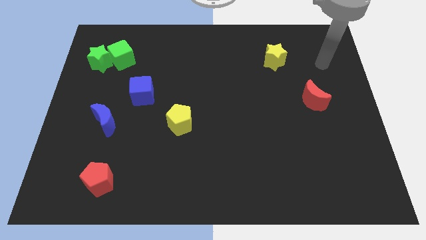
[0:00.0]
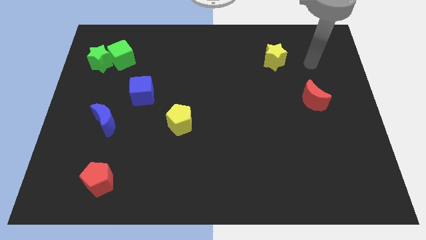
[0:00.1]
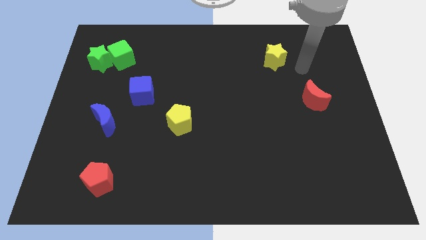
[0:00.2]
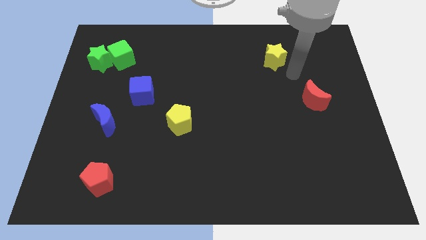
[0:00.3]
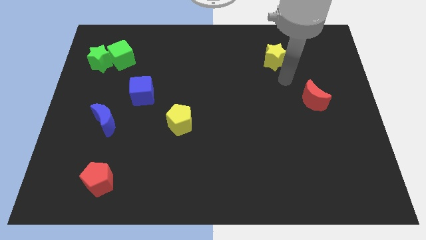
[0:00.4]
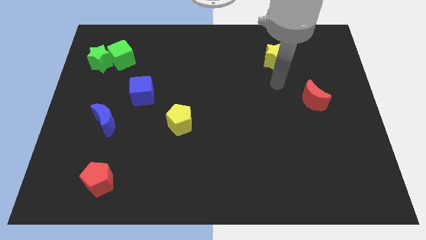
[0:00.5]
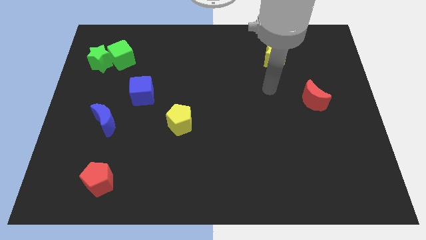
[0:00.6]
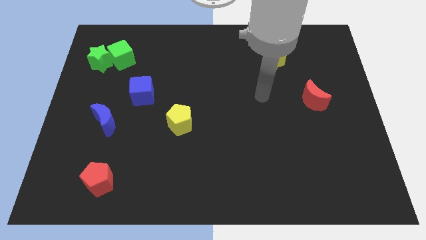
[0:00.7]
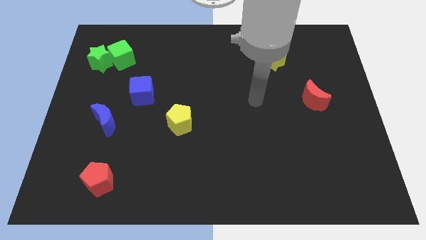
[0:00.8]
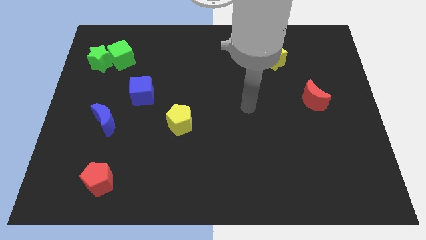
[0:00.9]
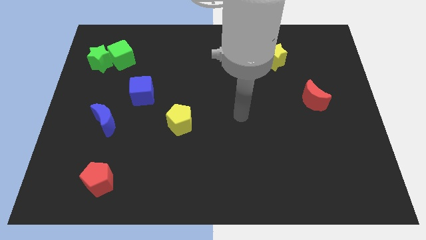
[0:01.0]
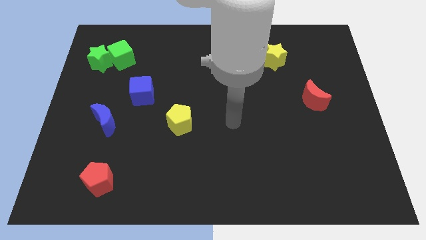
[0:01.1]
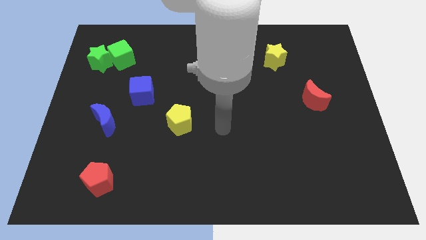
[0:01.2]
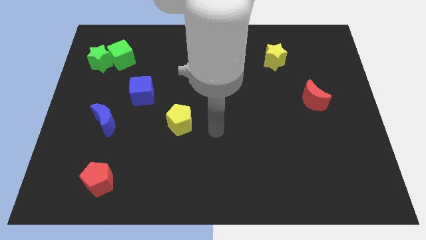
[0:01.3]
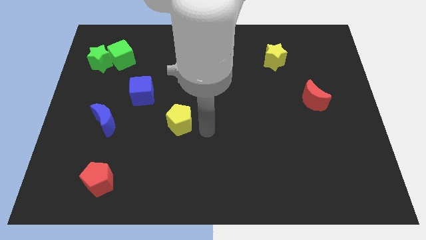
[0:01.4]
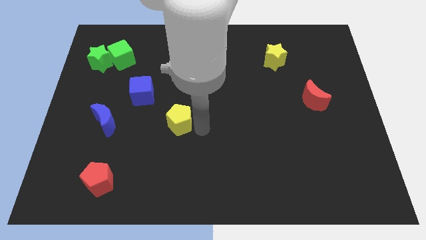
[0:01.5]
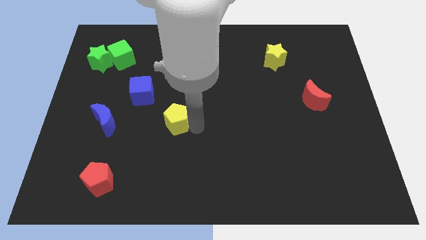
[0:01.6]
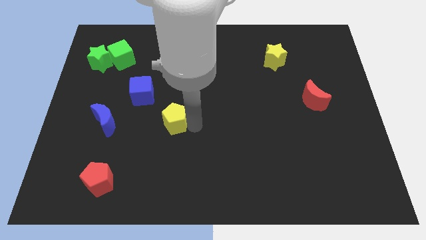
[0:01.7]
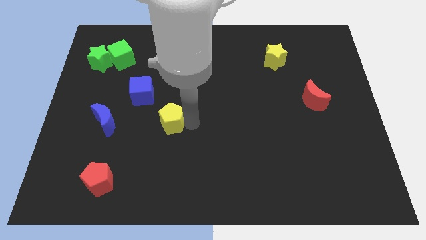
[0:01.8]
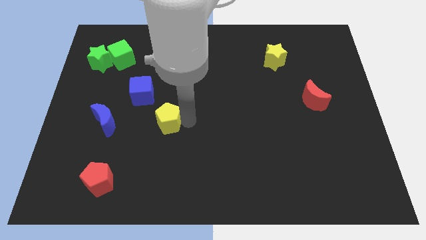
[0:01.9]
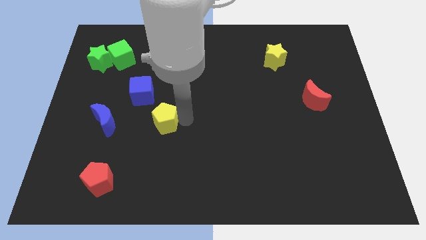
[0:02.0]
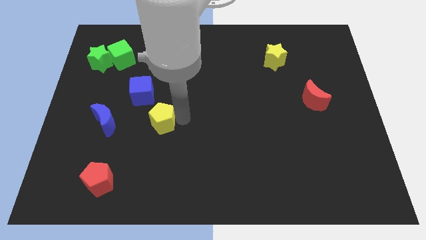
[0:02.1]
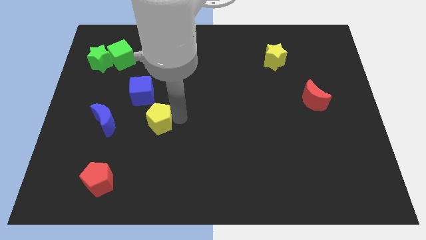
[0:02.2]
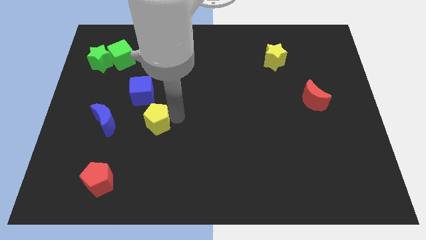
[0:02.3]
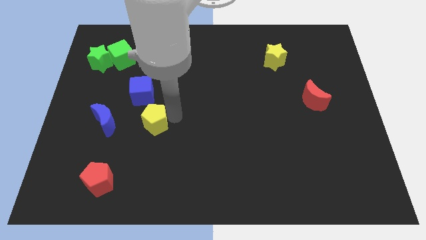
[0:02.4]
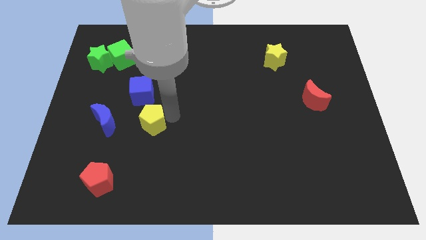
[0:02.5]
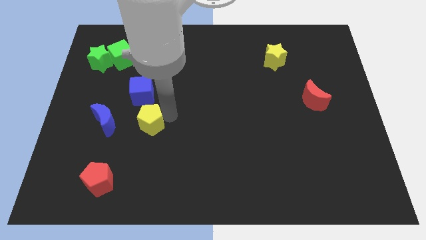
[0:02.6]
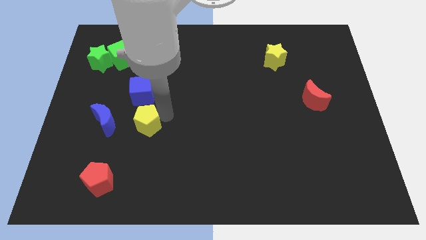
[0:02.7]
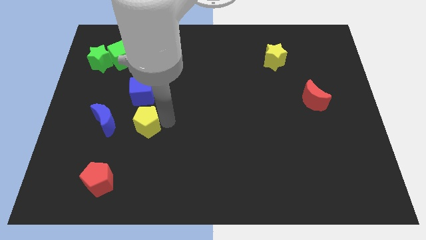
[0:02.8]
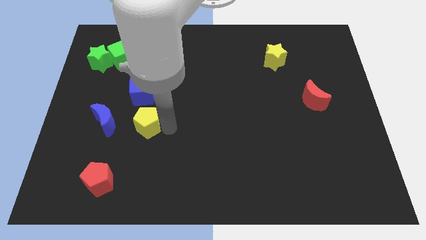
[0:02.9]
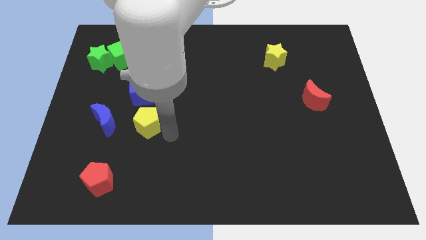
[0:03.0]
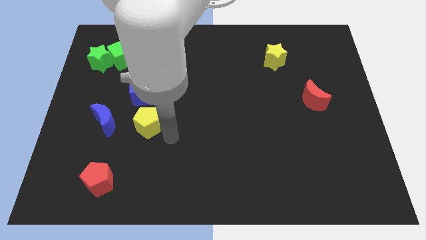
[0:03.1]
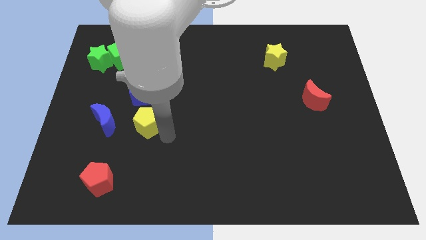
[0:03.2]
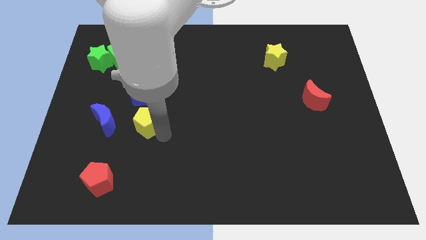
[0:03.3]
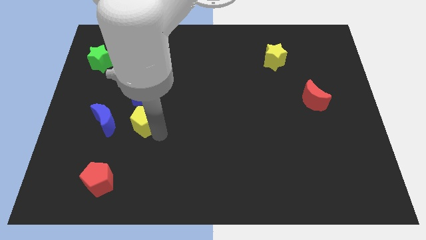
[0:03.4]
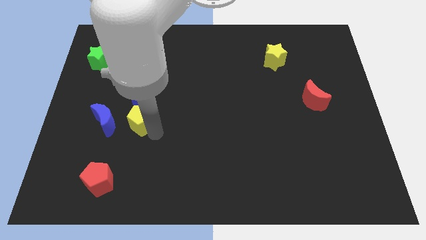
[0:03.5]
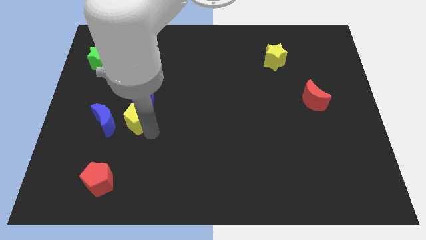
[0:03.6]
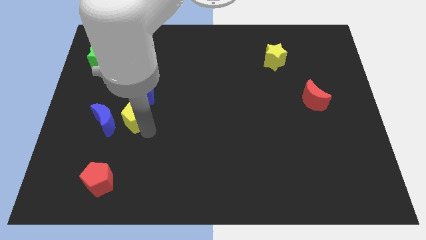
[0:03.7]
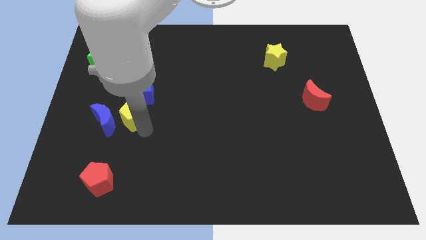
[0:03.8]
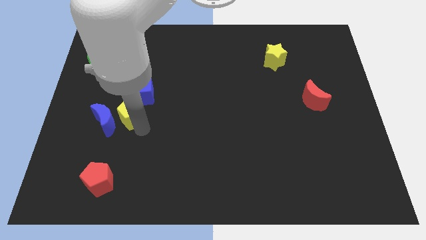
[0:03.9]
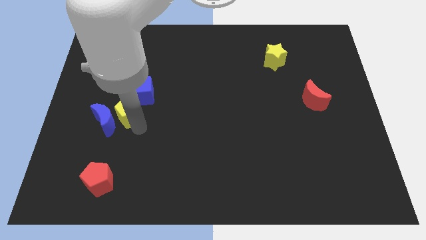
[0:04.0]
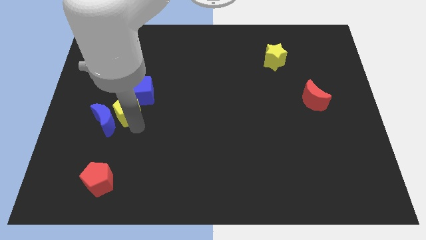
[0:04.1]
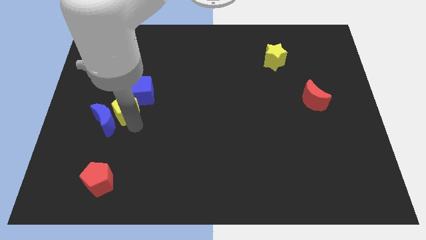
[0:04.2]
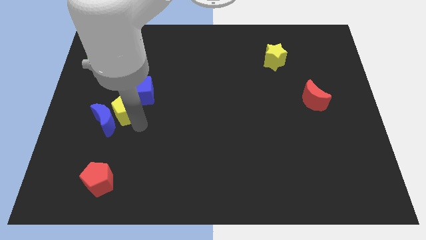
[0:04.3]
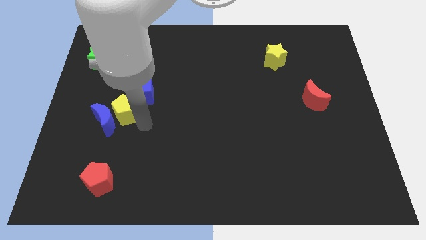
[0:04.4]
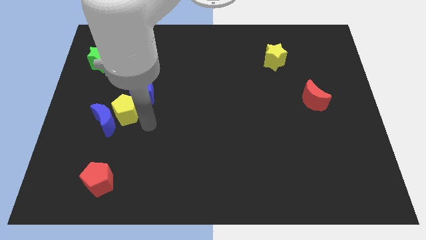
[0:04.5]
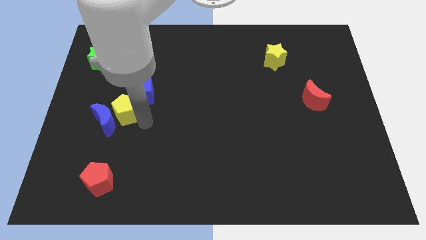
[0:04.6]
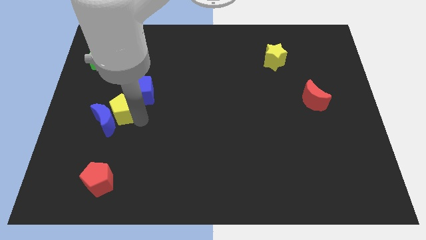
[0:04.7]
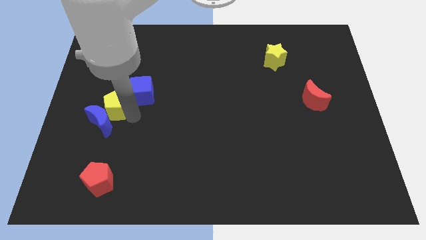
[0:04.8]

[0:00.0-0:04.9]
push the yellow pentagon just left of the blue cube

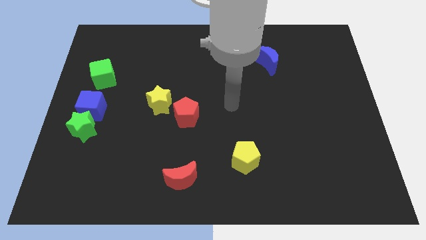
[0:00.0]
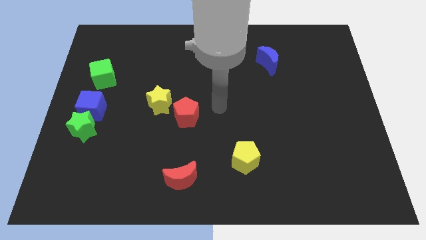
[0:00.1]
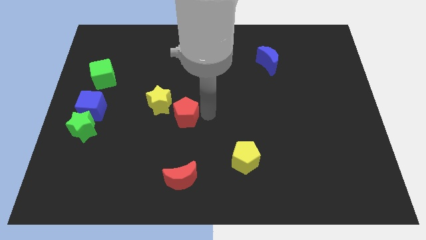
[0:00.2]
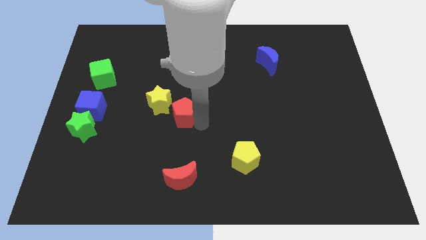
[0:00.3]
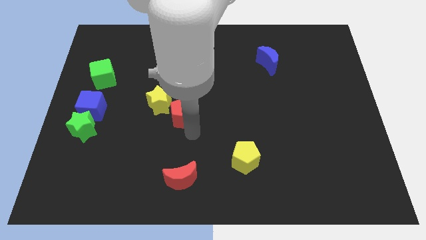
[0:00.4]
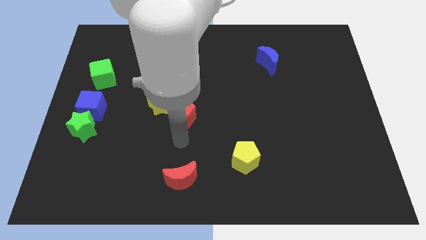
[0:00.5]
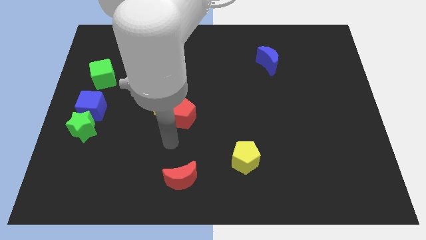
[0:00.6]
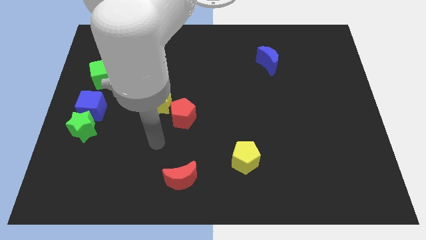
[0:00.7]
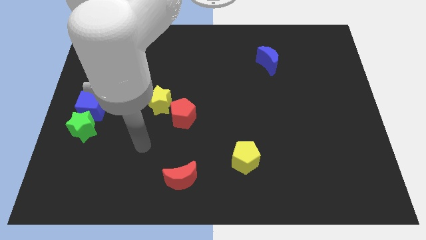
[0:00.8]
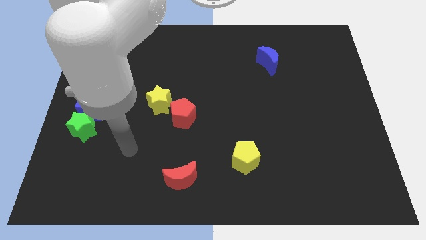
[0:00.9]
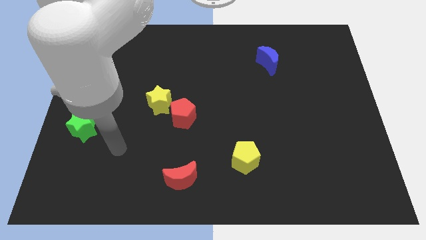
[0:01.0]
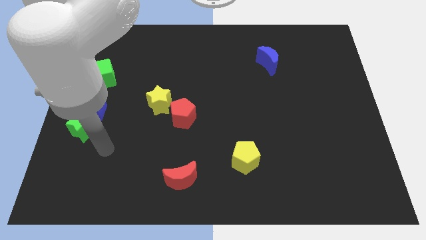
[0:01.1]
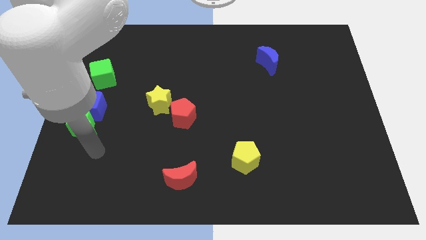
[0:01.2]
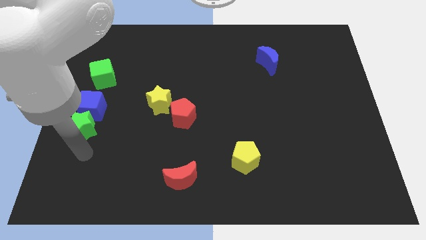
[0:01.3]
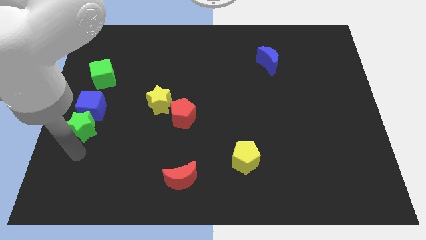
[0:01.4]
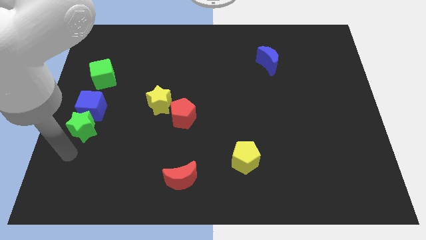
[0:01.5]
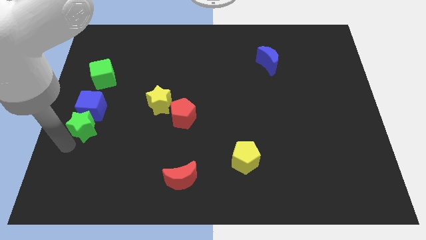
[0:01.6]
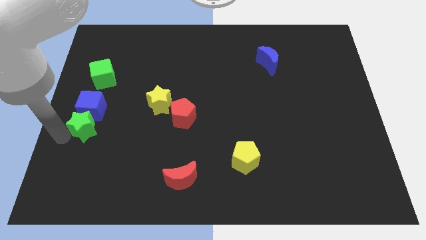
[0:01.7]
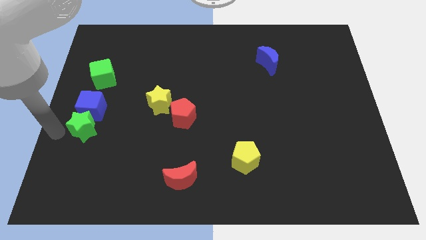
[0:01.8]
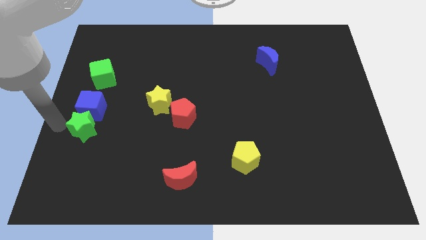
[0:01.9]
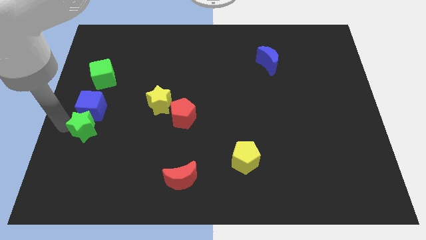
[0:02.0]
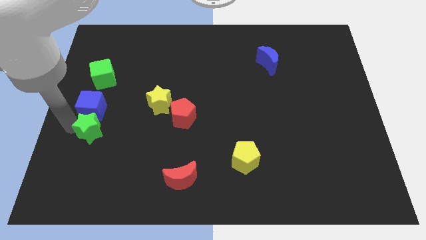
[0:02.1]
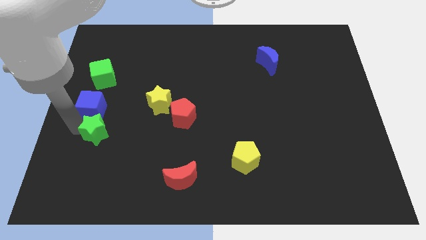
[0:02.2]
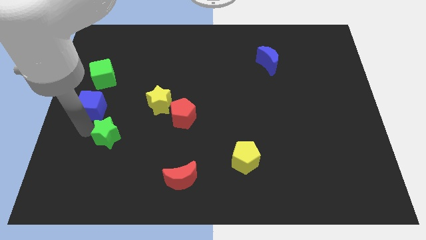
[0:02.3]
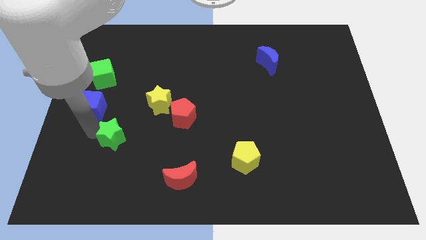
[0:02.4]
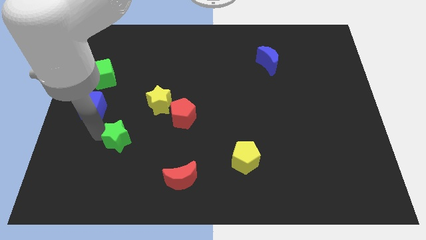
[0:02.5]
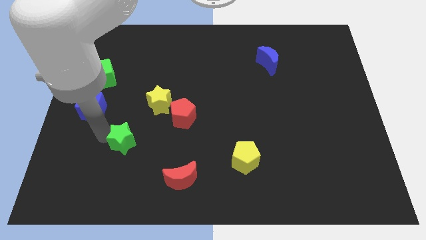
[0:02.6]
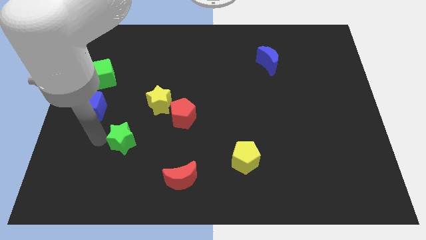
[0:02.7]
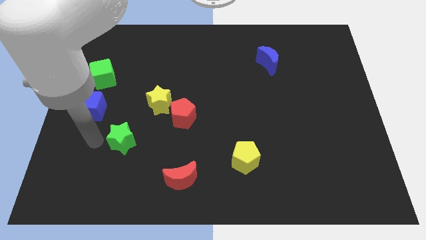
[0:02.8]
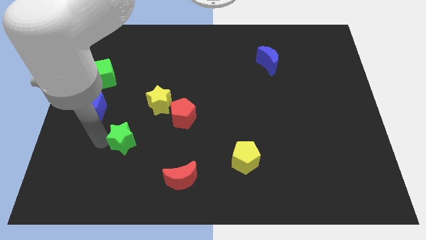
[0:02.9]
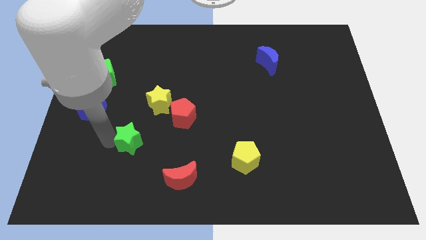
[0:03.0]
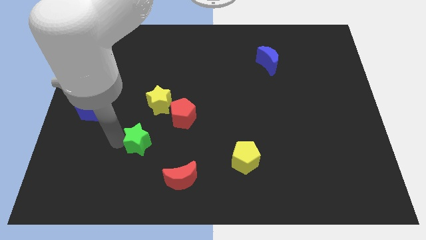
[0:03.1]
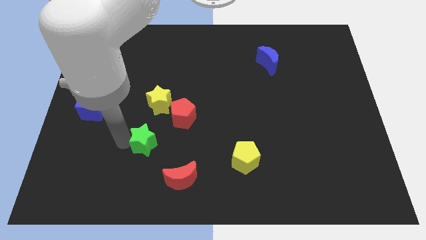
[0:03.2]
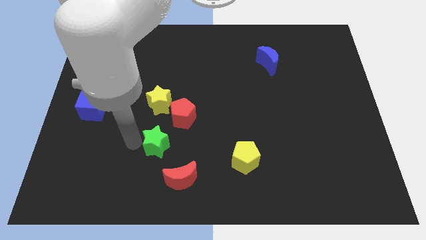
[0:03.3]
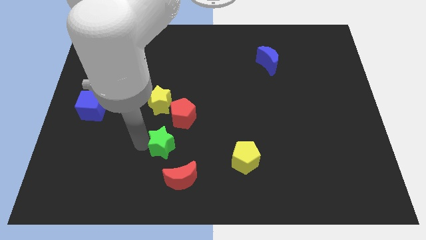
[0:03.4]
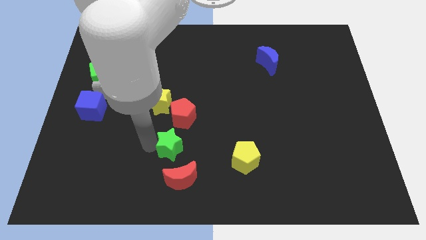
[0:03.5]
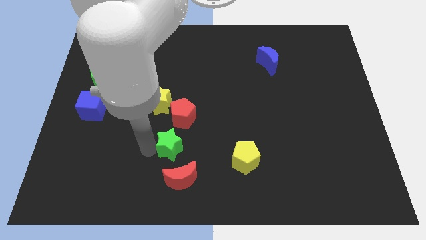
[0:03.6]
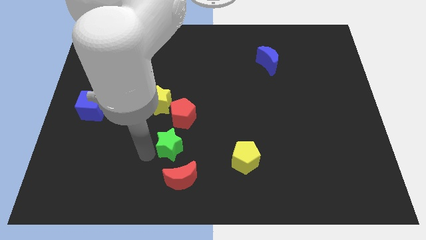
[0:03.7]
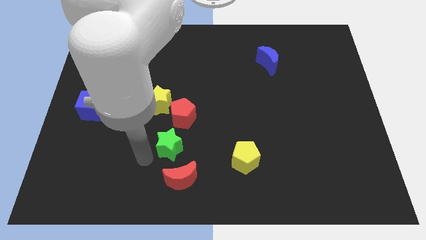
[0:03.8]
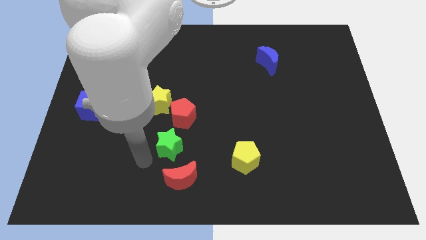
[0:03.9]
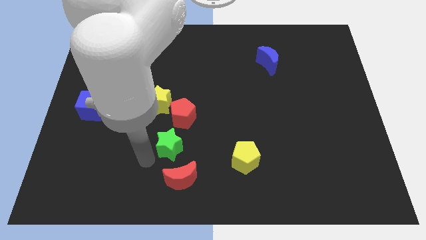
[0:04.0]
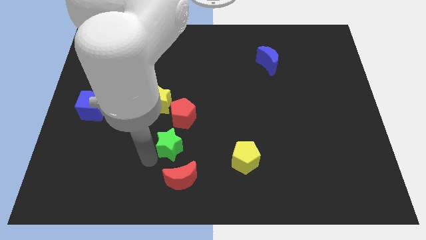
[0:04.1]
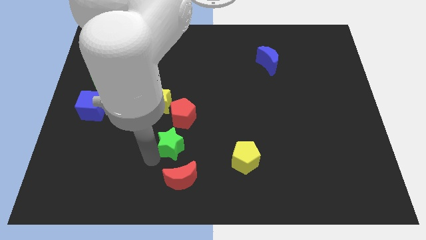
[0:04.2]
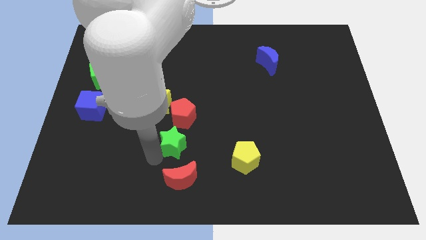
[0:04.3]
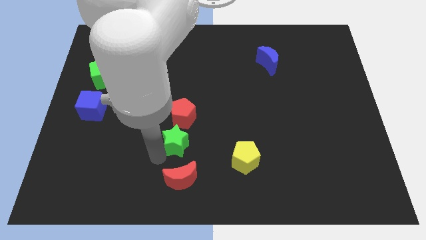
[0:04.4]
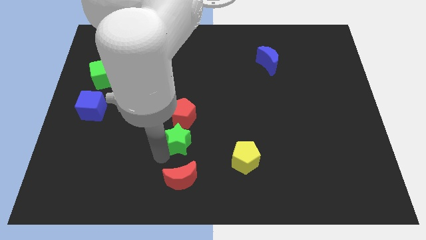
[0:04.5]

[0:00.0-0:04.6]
push the green star to the bottom right side of the red pentagon
